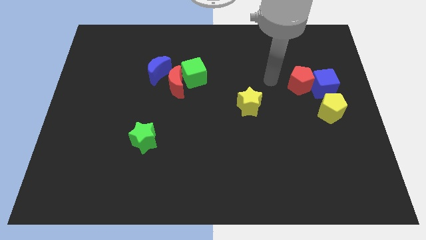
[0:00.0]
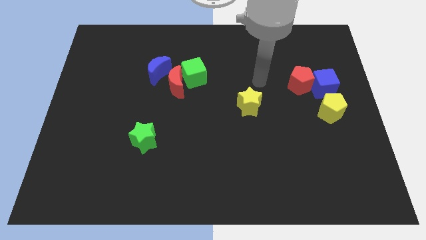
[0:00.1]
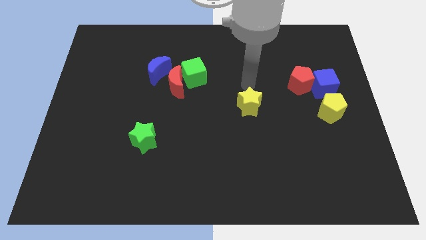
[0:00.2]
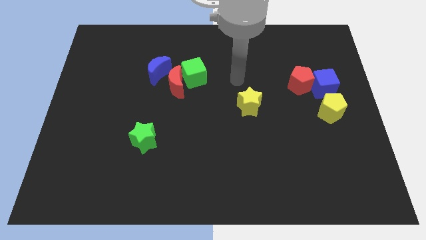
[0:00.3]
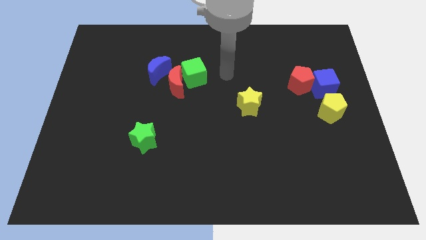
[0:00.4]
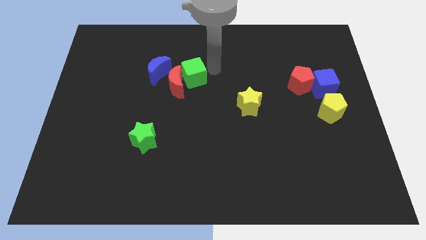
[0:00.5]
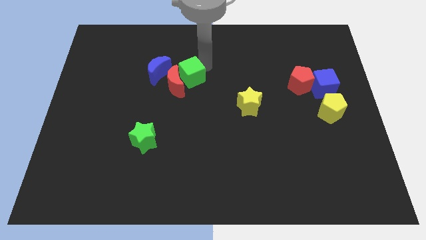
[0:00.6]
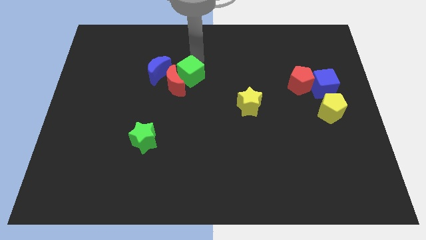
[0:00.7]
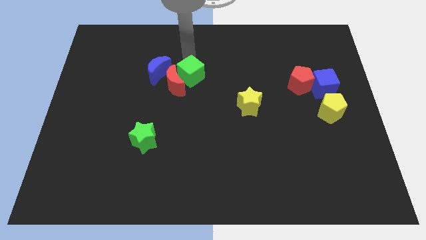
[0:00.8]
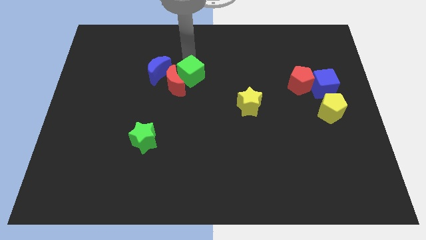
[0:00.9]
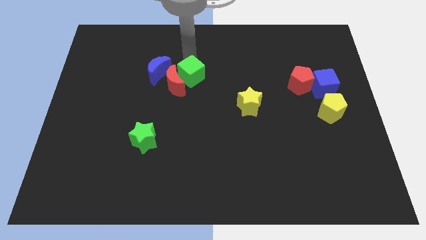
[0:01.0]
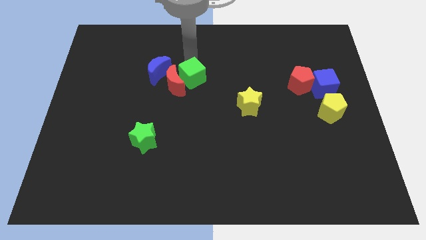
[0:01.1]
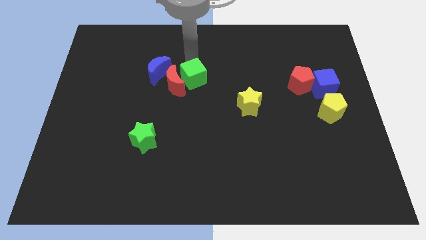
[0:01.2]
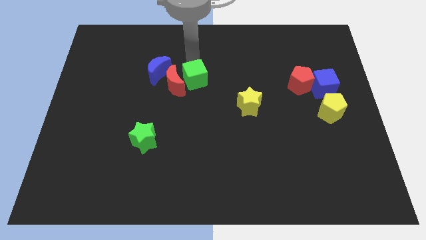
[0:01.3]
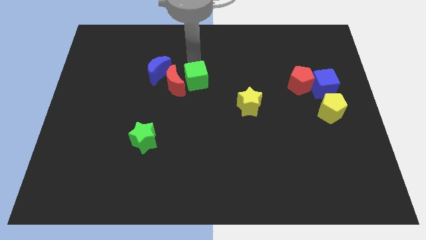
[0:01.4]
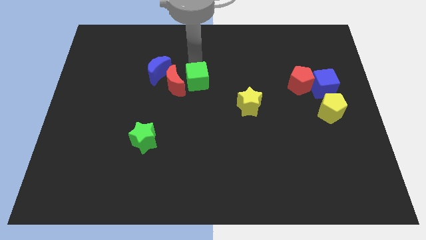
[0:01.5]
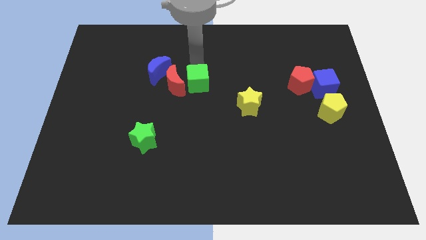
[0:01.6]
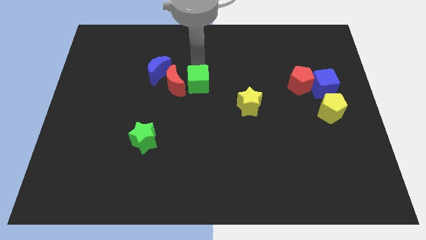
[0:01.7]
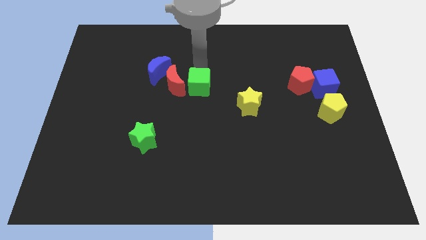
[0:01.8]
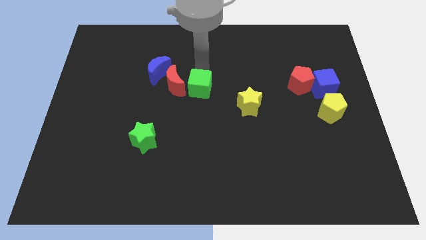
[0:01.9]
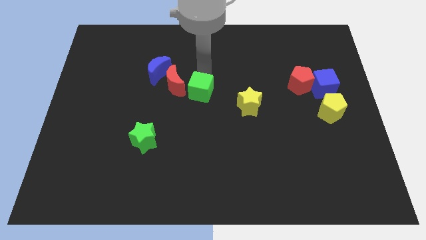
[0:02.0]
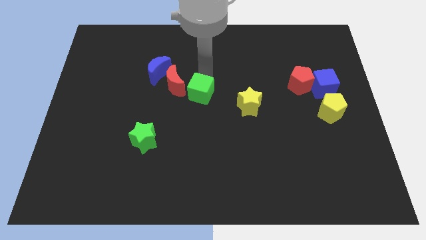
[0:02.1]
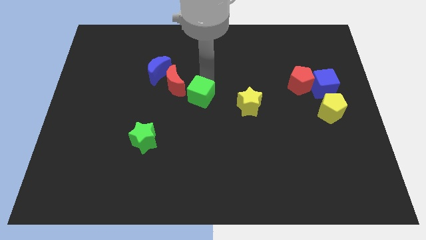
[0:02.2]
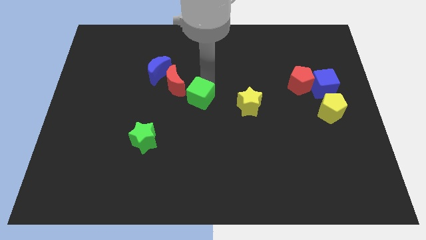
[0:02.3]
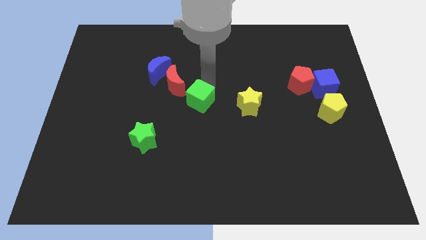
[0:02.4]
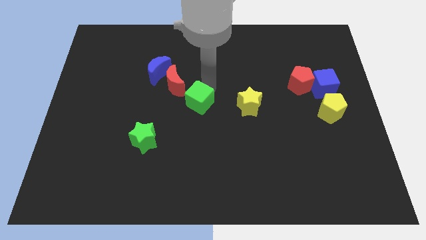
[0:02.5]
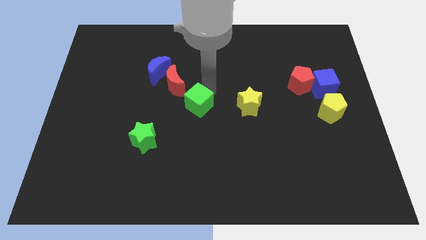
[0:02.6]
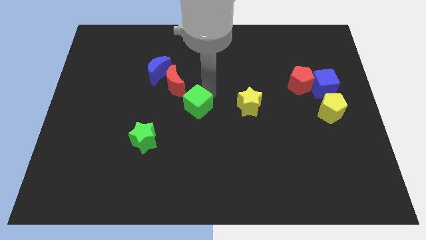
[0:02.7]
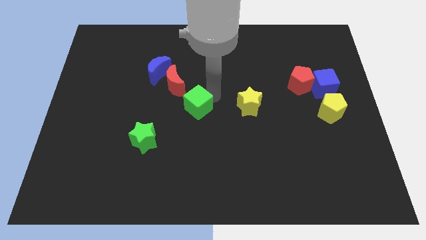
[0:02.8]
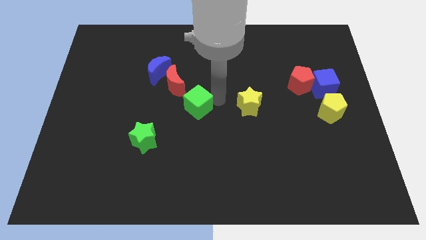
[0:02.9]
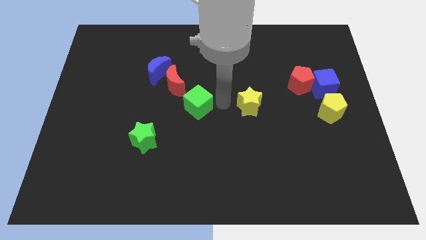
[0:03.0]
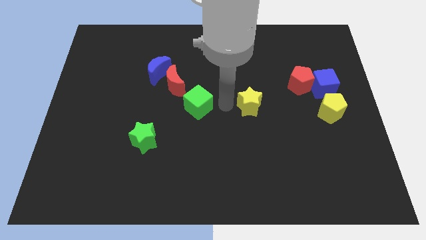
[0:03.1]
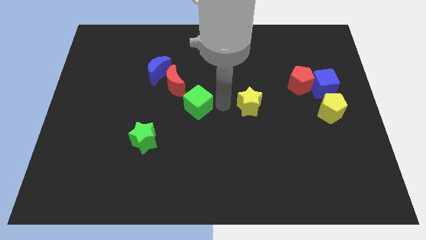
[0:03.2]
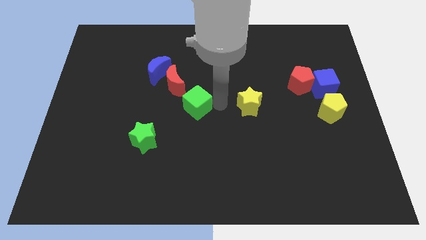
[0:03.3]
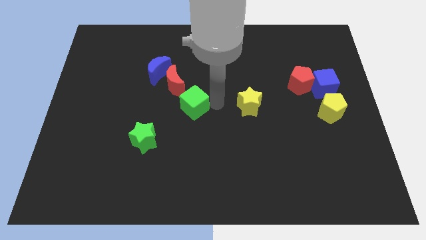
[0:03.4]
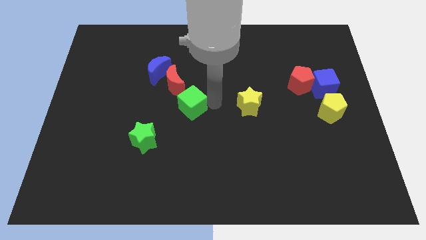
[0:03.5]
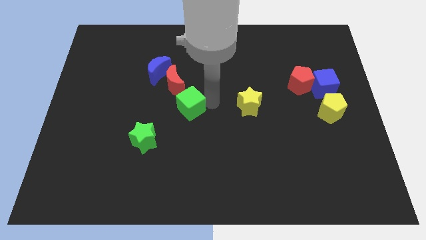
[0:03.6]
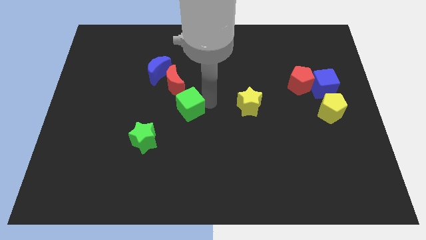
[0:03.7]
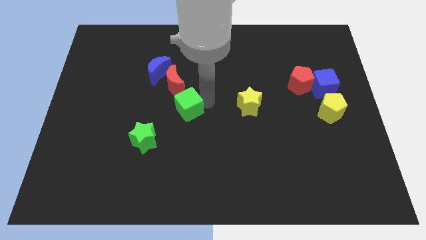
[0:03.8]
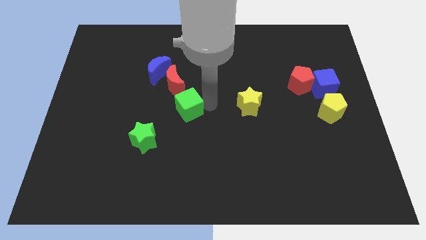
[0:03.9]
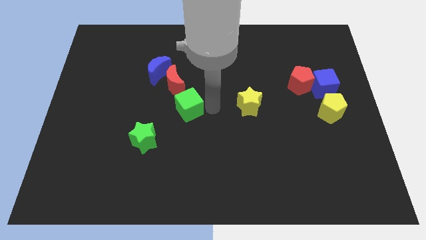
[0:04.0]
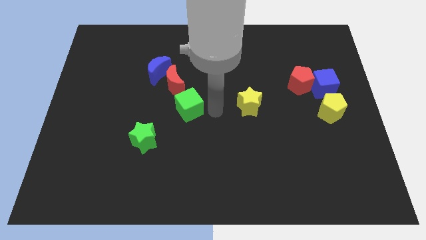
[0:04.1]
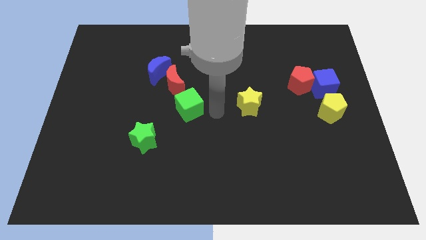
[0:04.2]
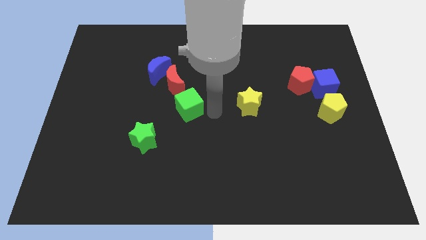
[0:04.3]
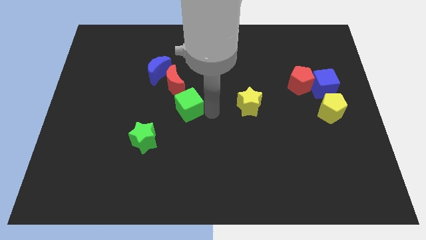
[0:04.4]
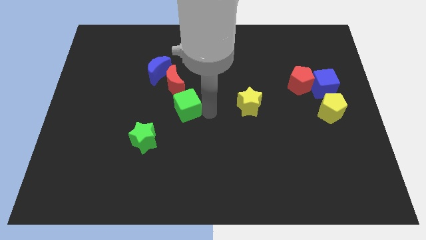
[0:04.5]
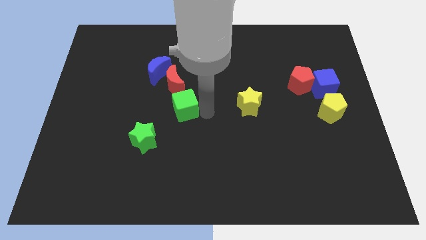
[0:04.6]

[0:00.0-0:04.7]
push the green cube somewhat downwards and to the left diagonally

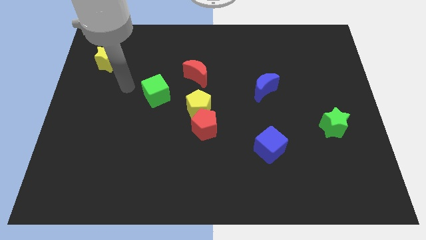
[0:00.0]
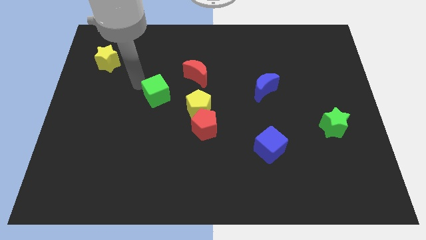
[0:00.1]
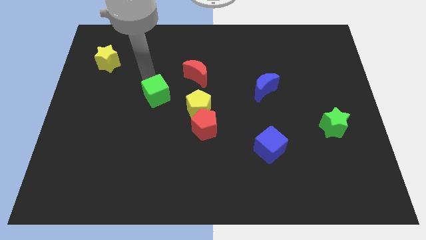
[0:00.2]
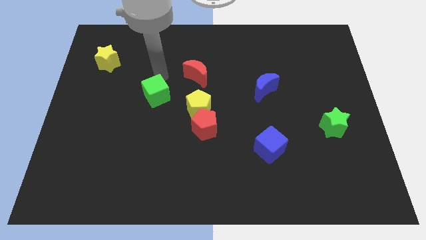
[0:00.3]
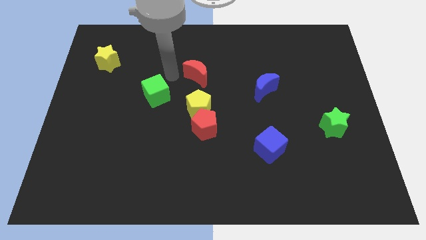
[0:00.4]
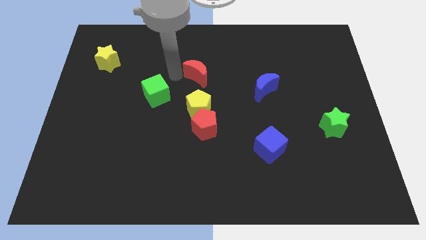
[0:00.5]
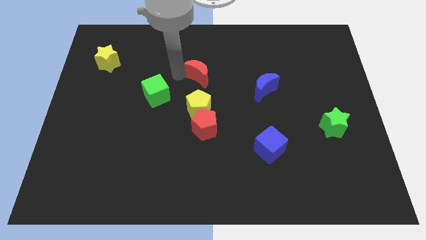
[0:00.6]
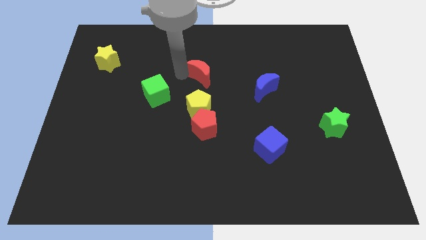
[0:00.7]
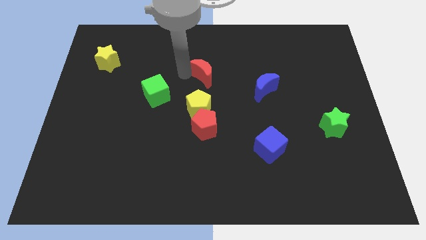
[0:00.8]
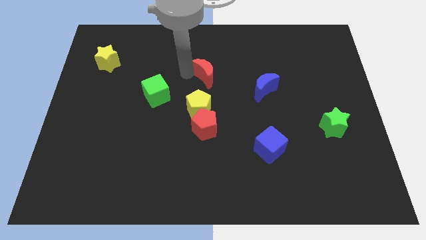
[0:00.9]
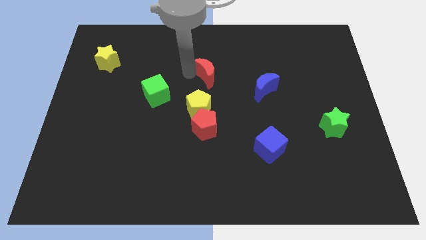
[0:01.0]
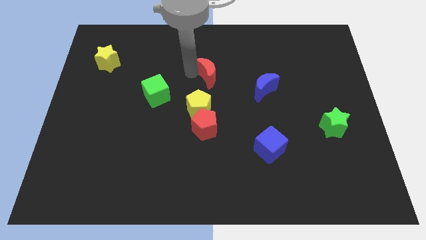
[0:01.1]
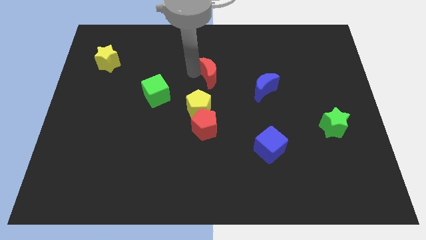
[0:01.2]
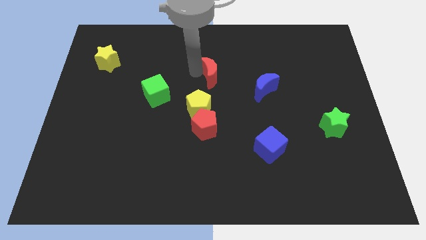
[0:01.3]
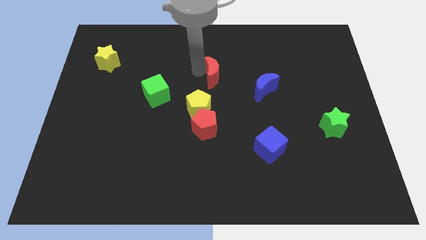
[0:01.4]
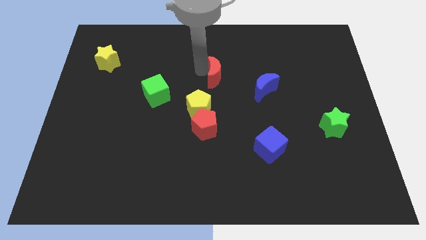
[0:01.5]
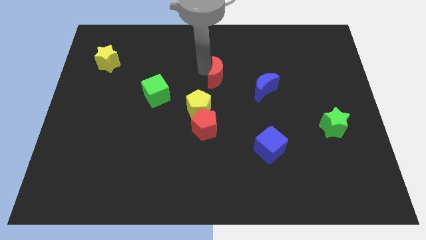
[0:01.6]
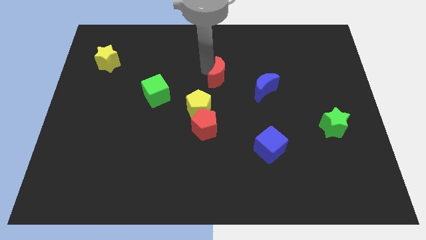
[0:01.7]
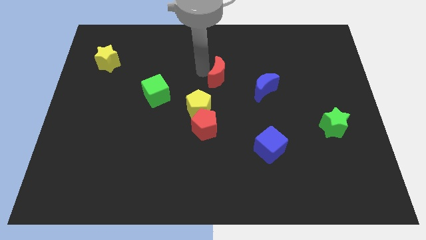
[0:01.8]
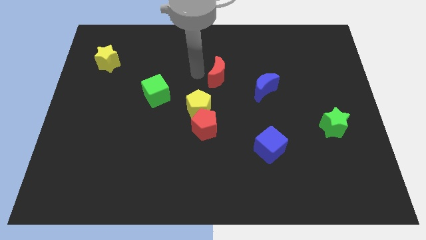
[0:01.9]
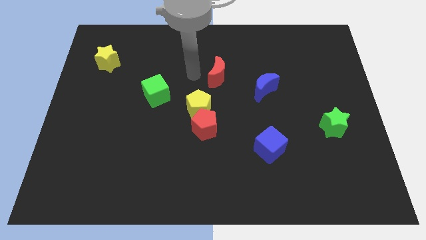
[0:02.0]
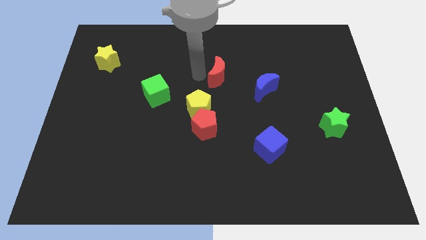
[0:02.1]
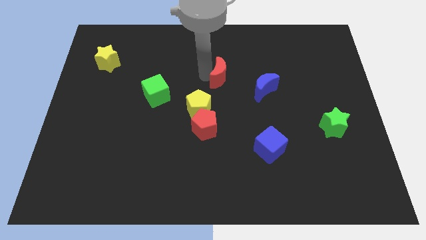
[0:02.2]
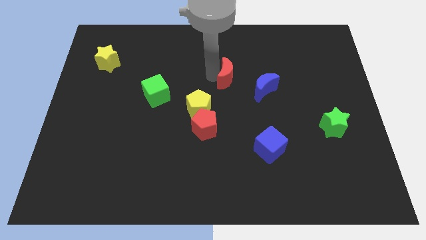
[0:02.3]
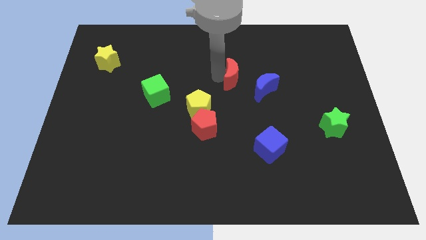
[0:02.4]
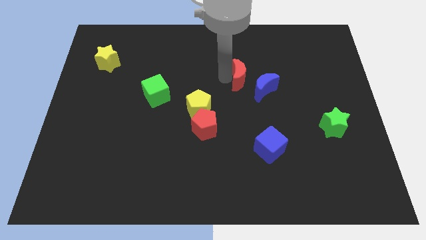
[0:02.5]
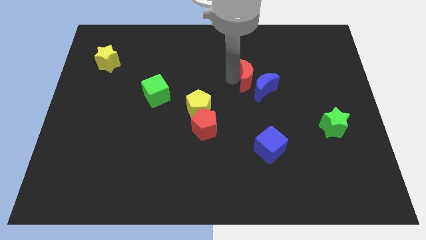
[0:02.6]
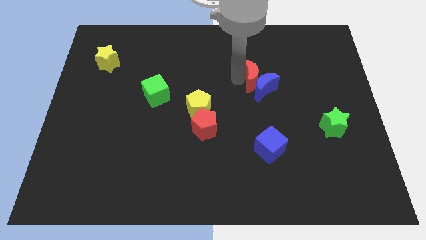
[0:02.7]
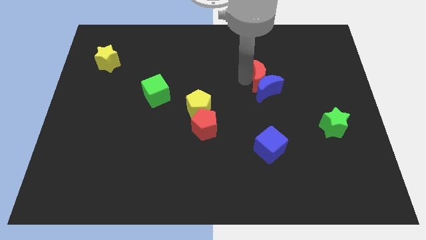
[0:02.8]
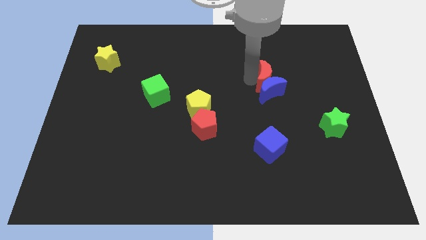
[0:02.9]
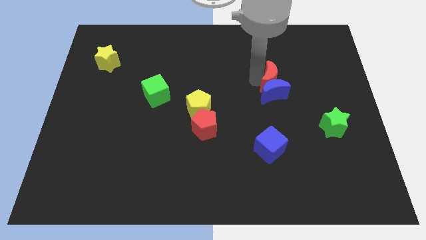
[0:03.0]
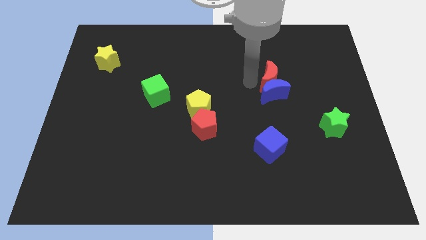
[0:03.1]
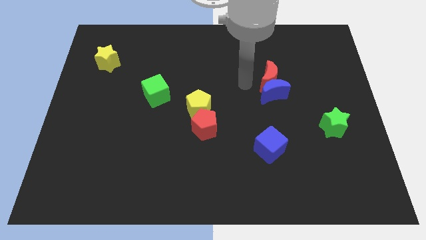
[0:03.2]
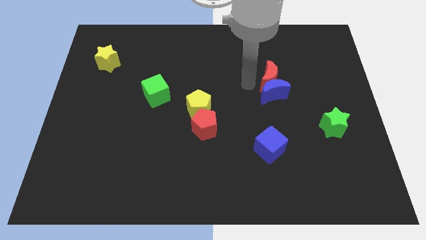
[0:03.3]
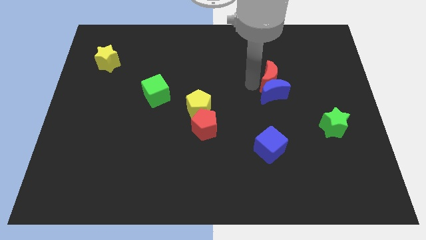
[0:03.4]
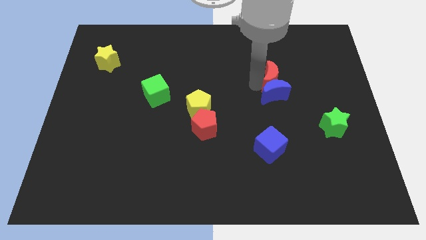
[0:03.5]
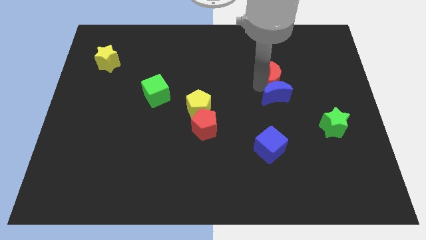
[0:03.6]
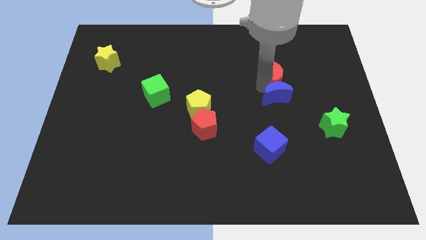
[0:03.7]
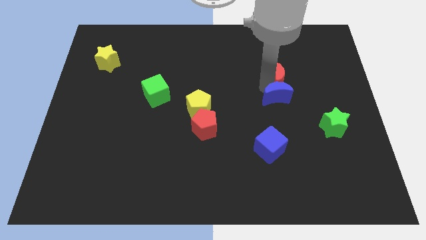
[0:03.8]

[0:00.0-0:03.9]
push the red moon to the right
